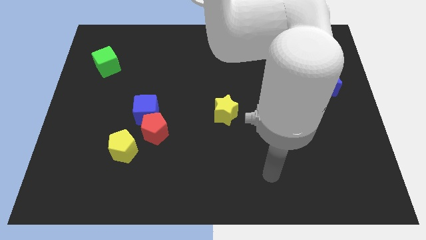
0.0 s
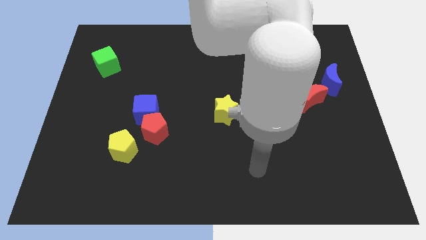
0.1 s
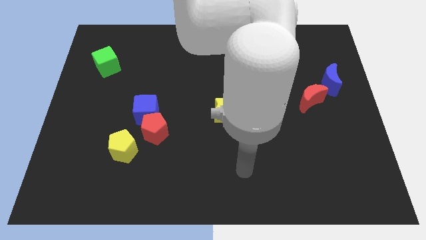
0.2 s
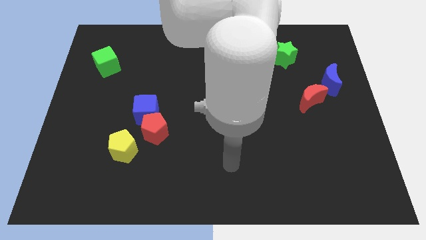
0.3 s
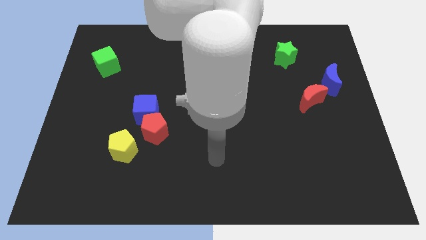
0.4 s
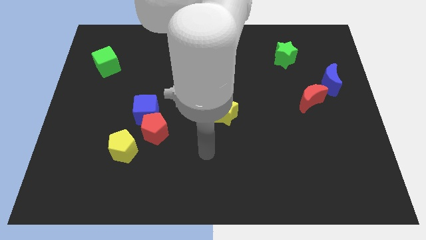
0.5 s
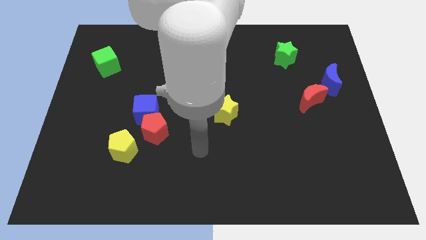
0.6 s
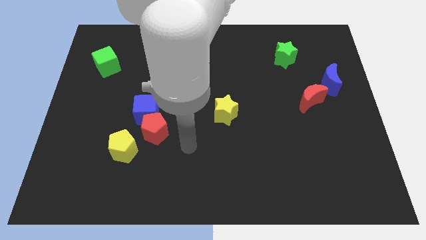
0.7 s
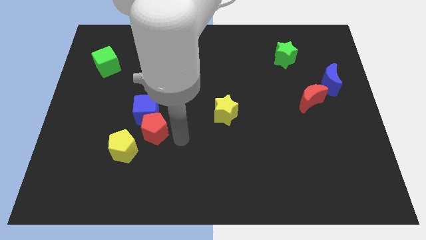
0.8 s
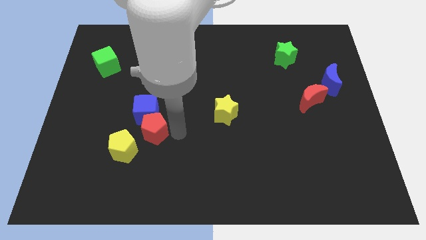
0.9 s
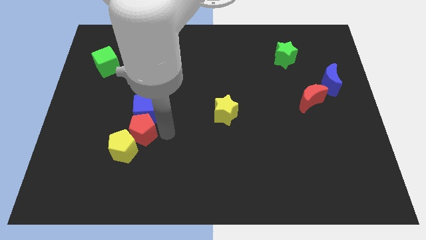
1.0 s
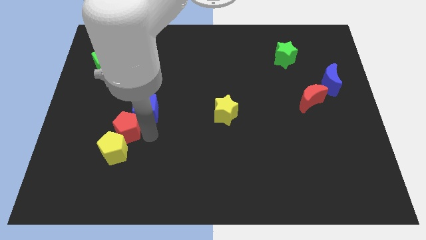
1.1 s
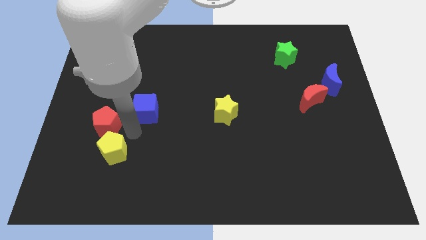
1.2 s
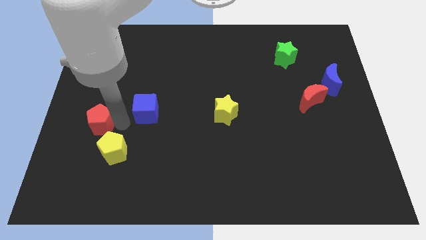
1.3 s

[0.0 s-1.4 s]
separate the blue cube from the red pentagon

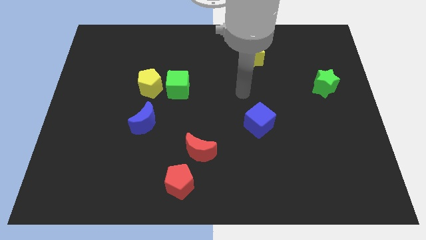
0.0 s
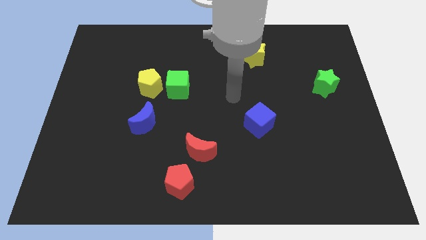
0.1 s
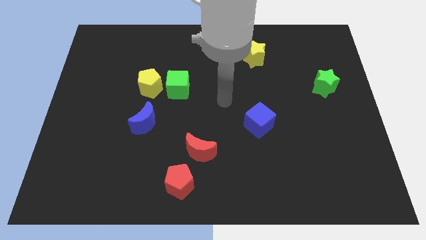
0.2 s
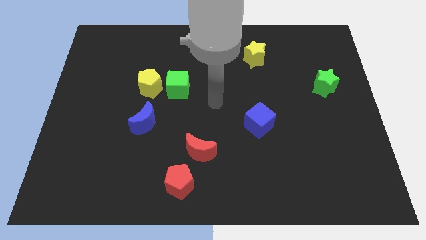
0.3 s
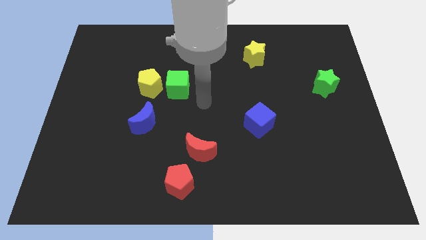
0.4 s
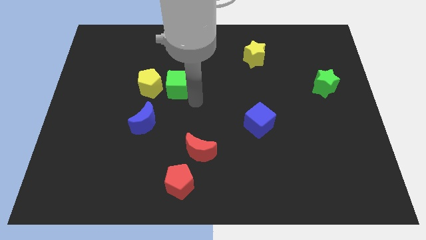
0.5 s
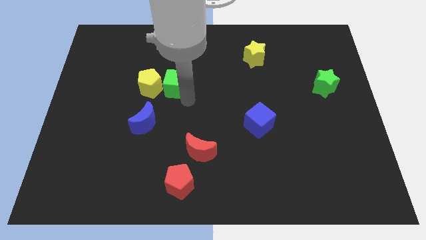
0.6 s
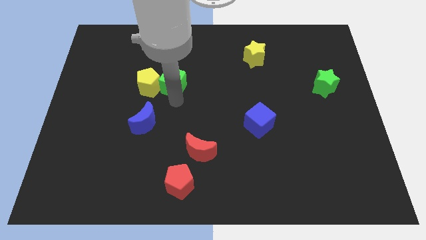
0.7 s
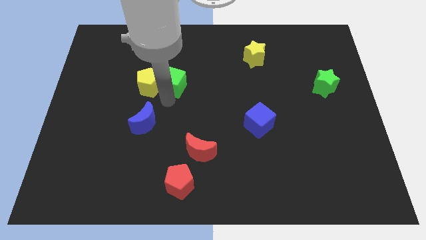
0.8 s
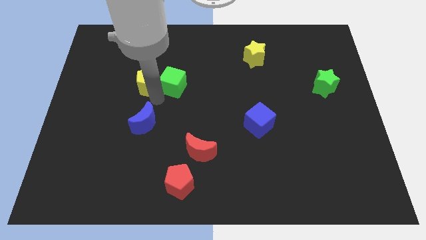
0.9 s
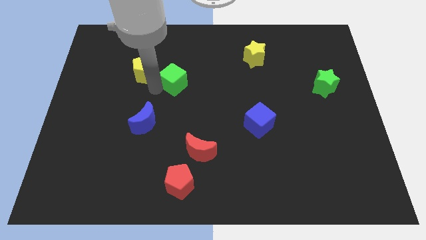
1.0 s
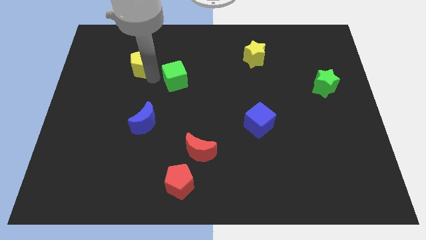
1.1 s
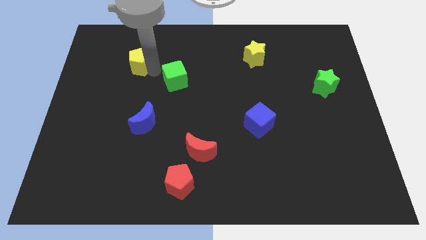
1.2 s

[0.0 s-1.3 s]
separate the green cube from the yellow pentagon

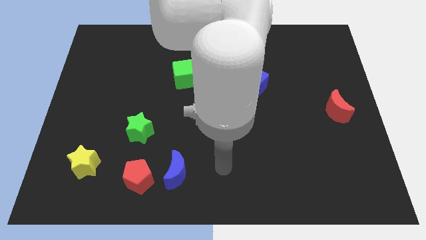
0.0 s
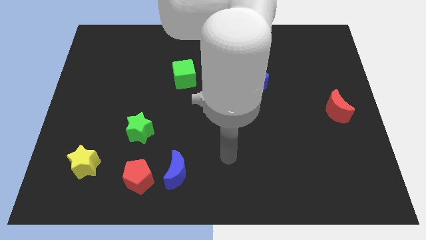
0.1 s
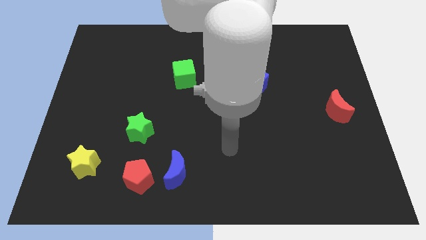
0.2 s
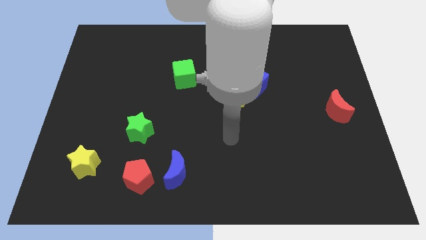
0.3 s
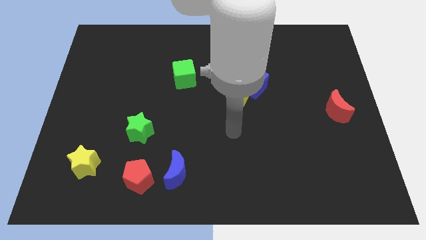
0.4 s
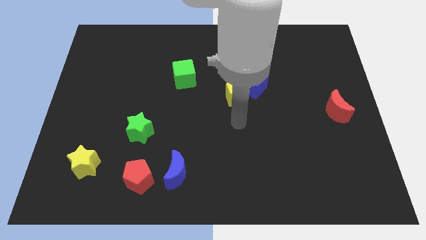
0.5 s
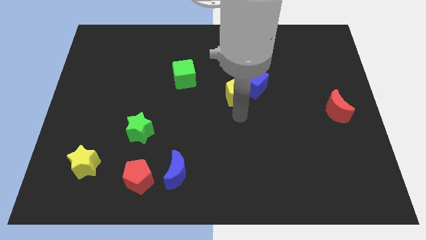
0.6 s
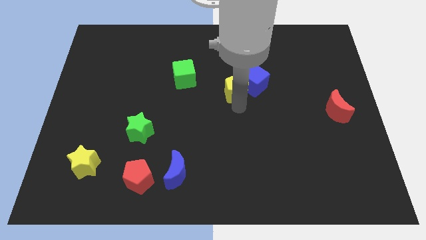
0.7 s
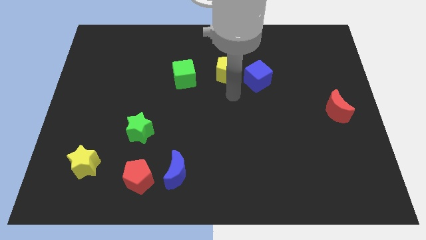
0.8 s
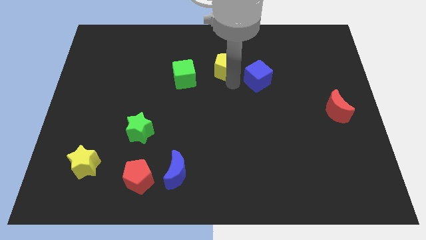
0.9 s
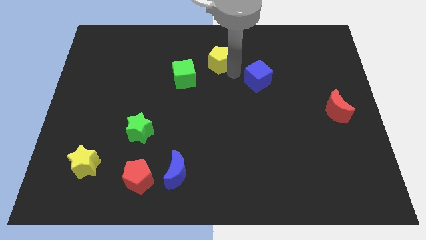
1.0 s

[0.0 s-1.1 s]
separate the blue cube from the yellow pentagon

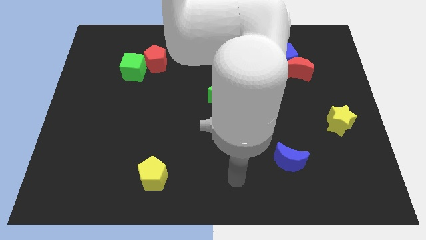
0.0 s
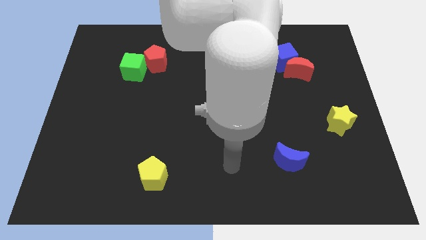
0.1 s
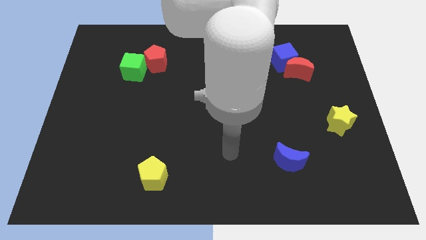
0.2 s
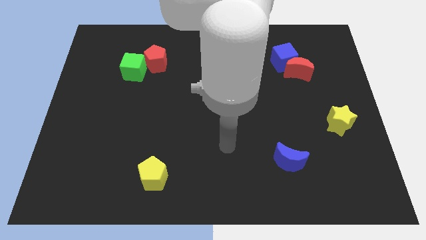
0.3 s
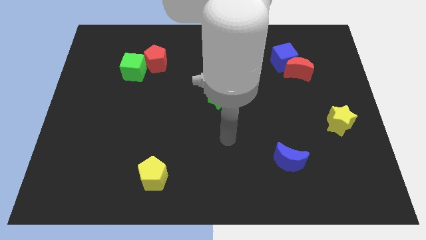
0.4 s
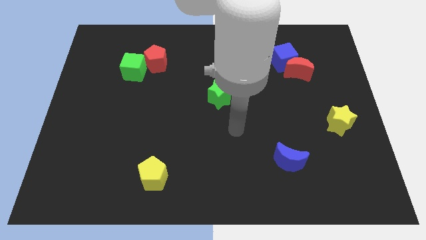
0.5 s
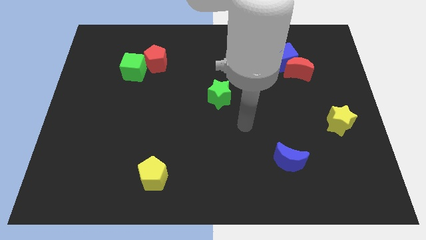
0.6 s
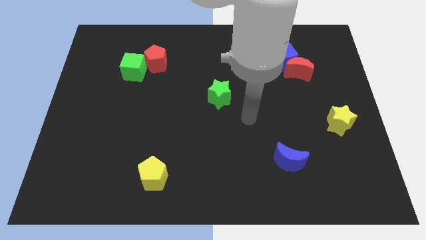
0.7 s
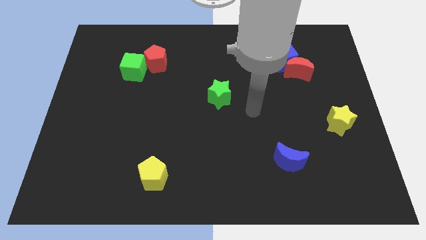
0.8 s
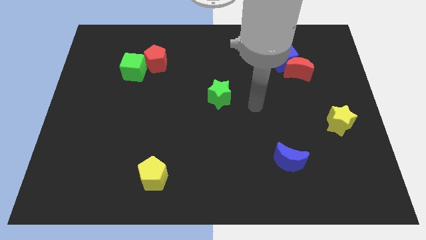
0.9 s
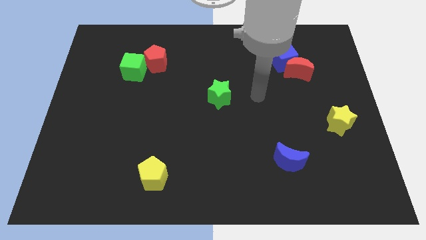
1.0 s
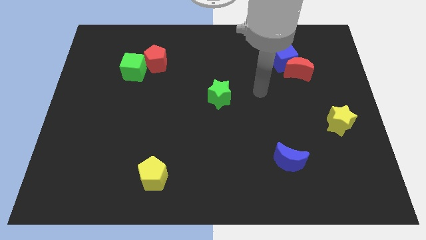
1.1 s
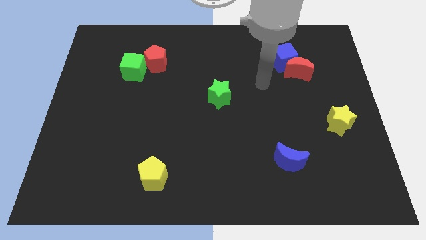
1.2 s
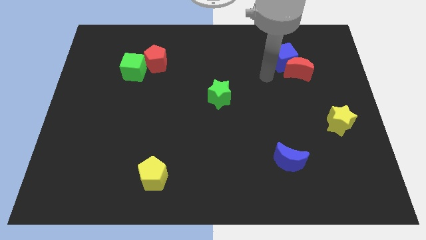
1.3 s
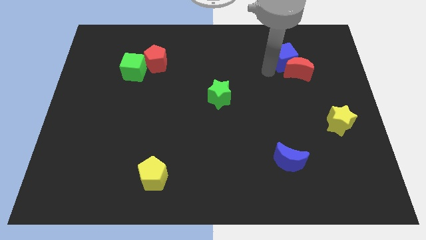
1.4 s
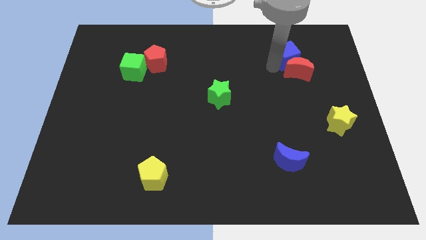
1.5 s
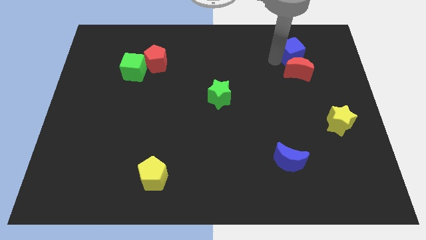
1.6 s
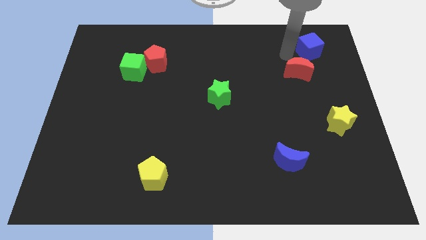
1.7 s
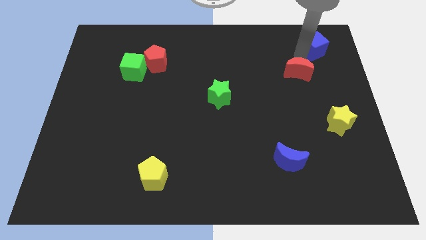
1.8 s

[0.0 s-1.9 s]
pull the red moon apart from the blue cube

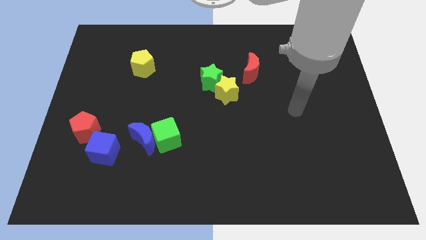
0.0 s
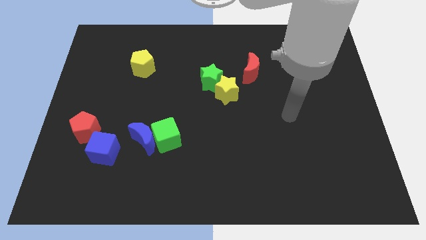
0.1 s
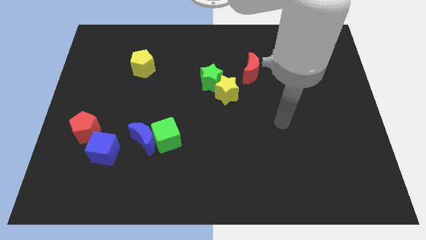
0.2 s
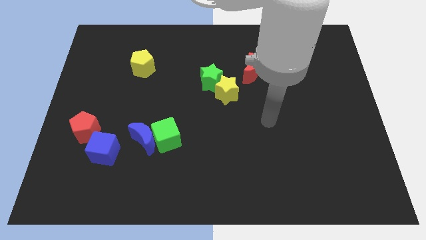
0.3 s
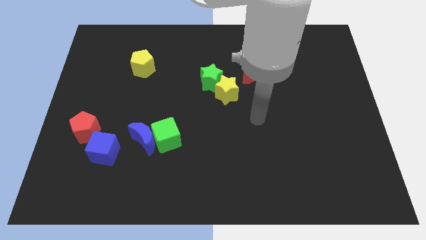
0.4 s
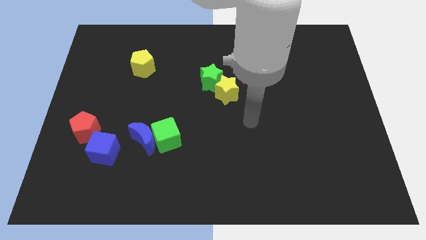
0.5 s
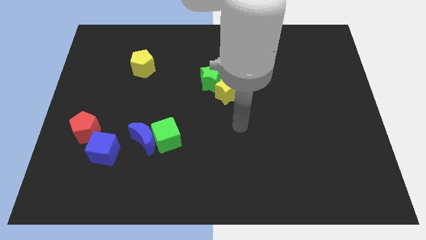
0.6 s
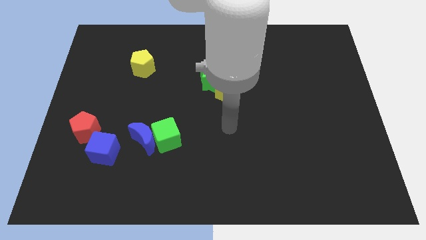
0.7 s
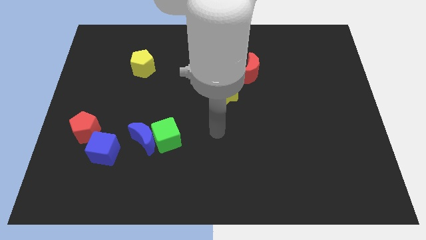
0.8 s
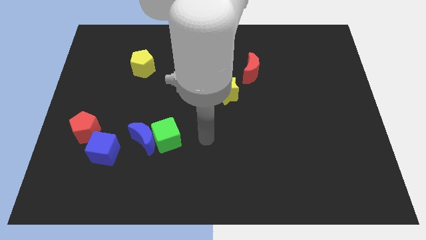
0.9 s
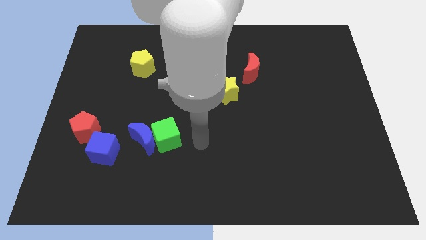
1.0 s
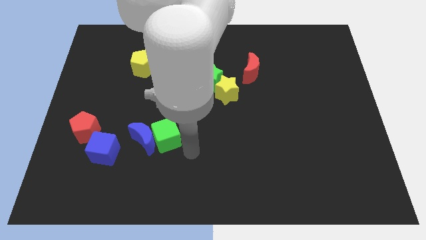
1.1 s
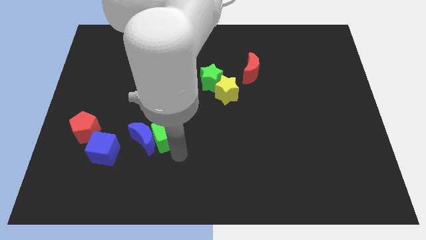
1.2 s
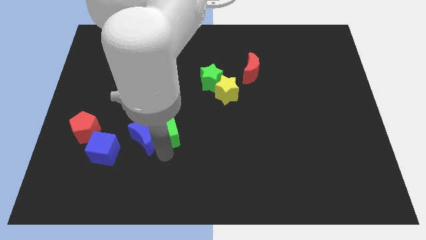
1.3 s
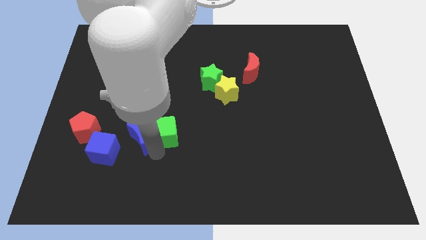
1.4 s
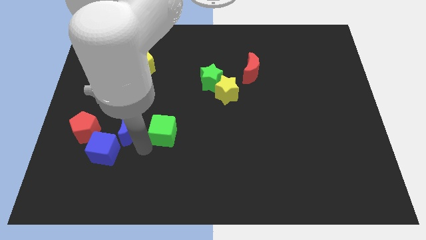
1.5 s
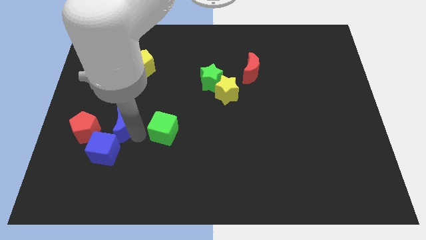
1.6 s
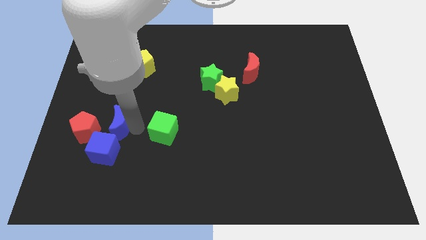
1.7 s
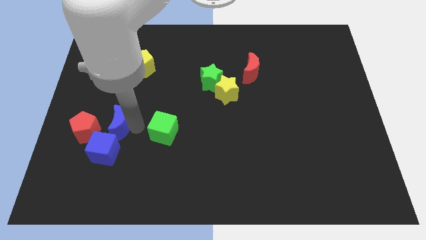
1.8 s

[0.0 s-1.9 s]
separate the green cube from the blue moon

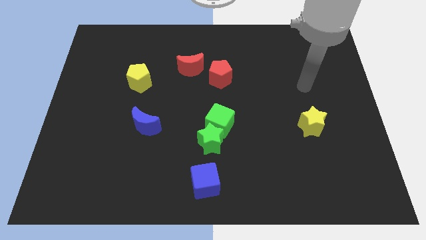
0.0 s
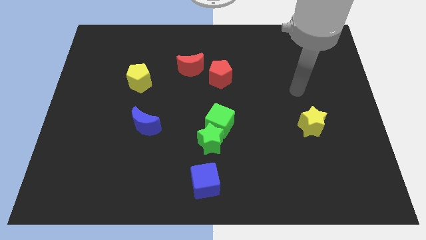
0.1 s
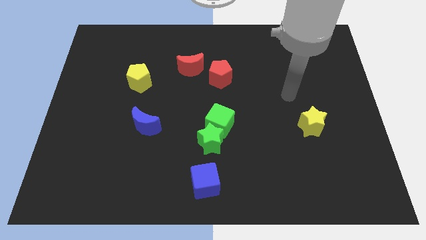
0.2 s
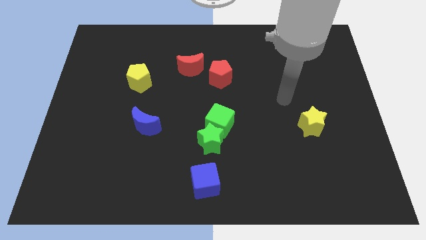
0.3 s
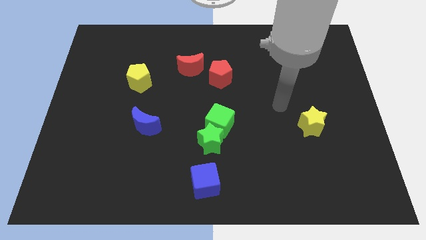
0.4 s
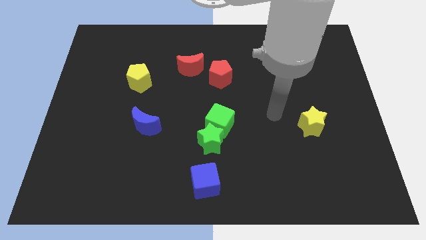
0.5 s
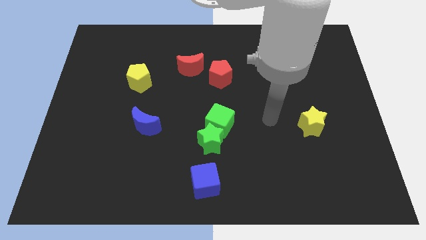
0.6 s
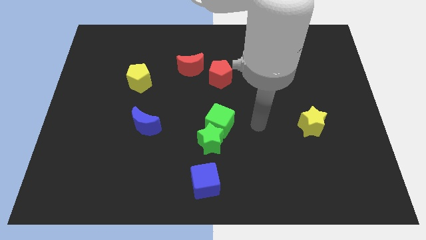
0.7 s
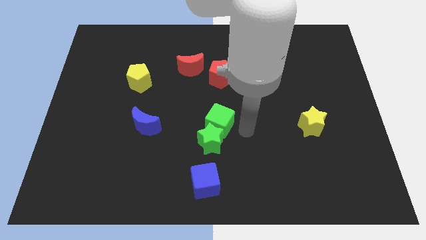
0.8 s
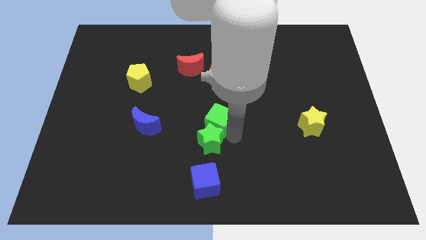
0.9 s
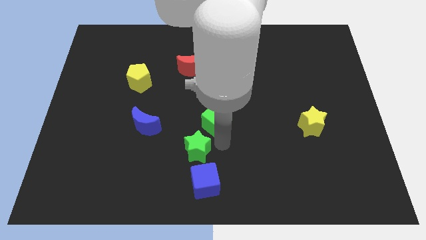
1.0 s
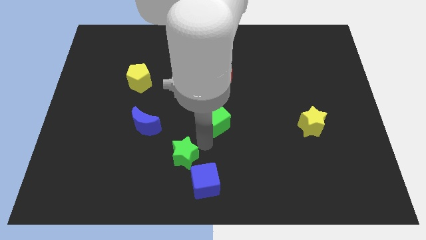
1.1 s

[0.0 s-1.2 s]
pull the green cube apart from the green star

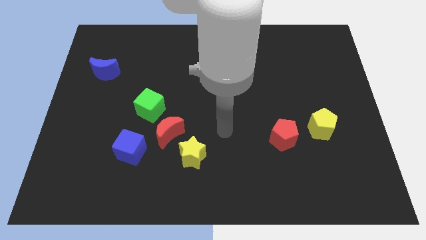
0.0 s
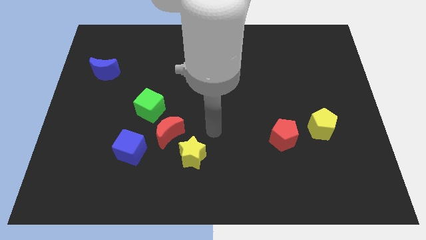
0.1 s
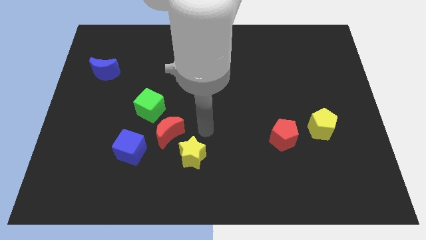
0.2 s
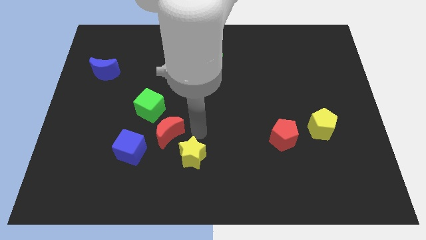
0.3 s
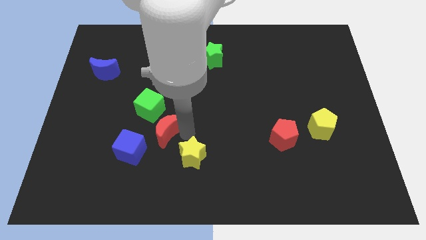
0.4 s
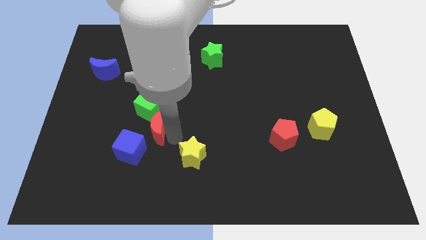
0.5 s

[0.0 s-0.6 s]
move the yellow star away from the red moon
